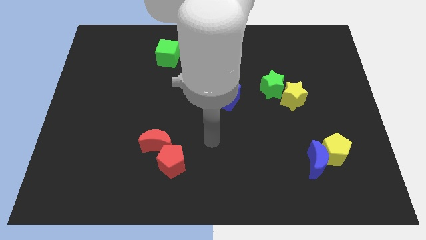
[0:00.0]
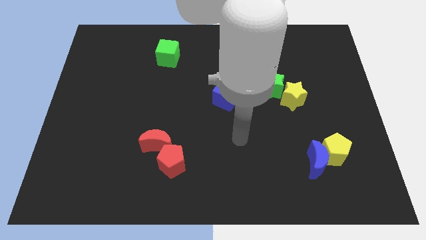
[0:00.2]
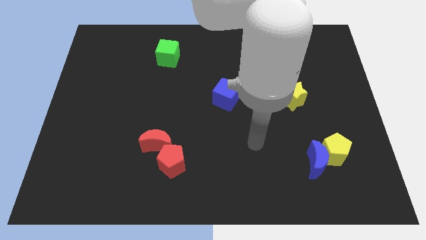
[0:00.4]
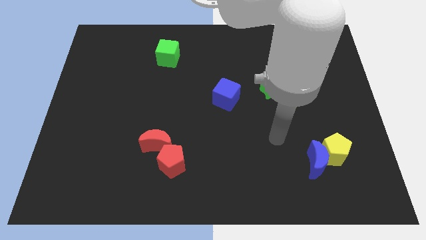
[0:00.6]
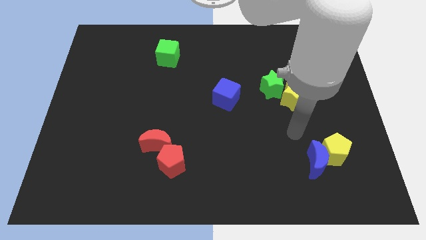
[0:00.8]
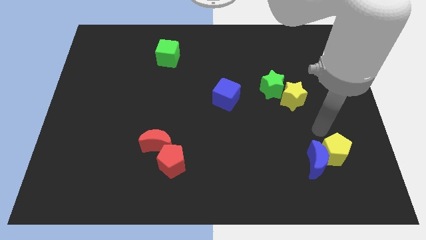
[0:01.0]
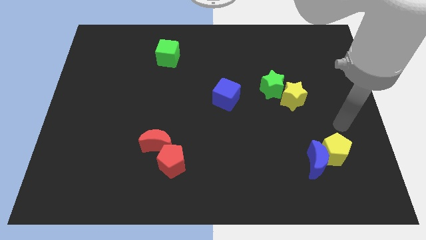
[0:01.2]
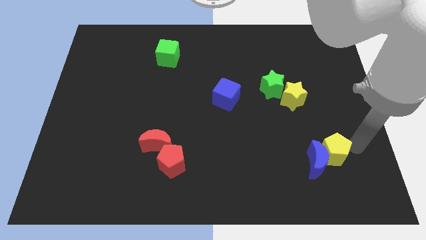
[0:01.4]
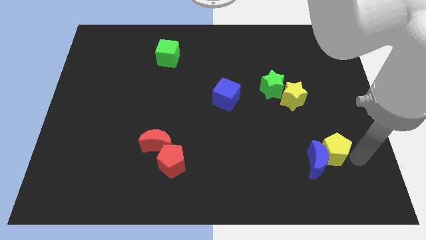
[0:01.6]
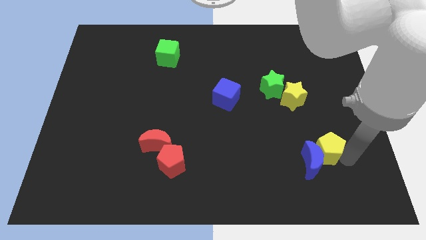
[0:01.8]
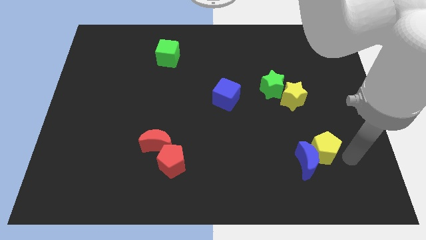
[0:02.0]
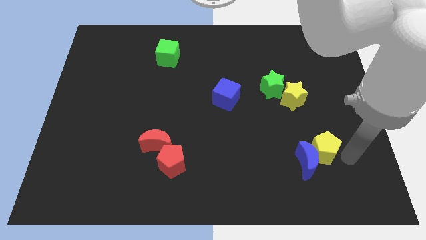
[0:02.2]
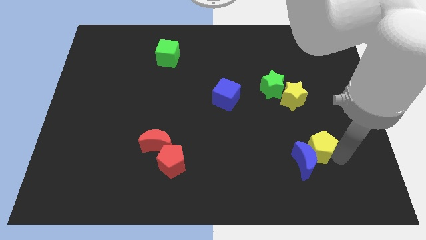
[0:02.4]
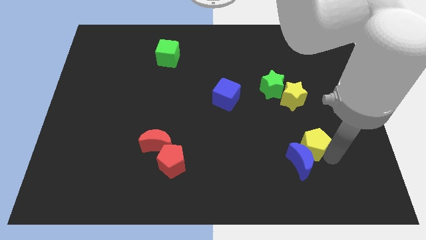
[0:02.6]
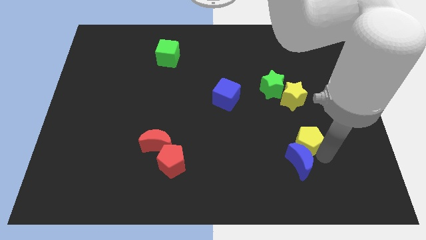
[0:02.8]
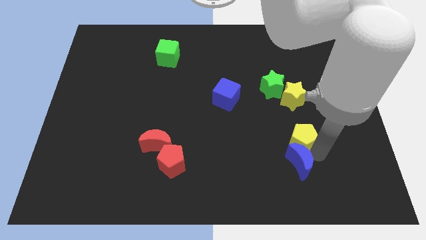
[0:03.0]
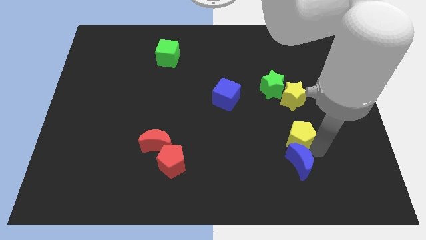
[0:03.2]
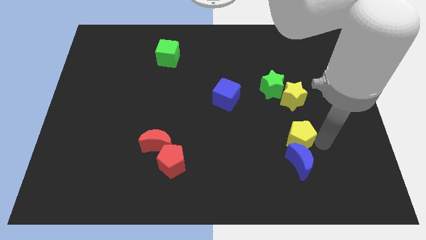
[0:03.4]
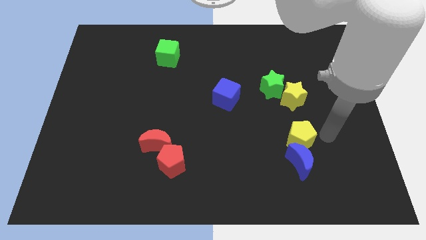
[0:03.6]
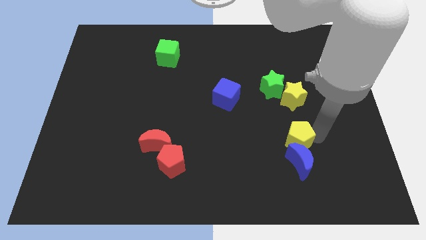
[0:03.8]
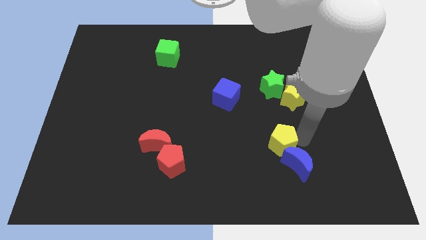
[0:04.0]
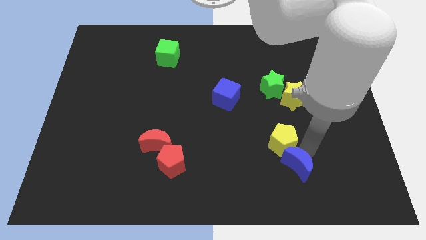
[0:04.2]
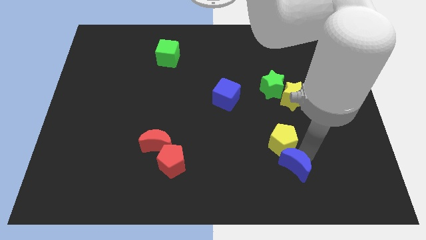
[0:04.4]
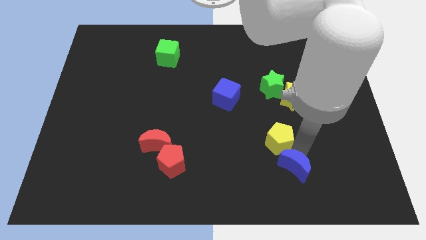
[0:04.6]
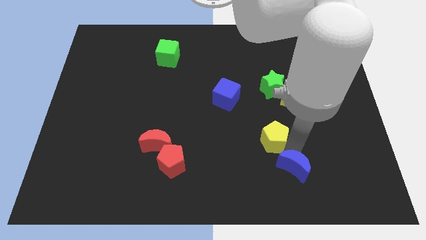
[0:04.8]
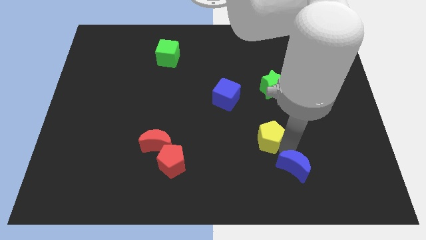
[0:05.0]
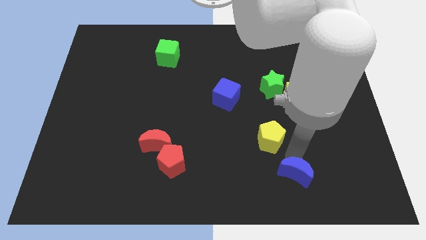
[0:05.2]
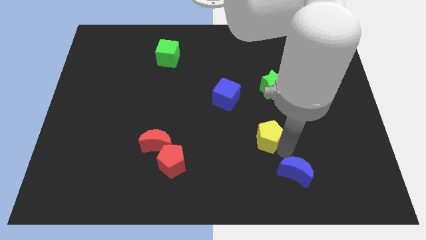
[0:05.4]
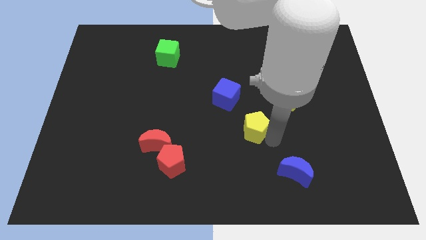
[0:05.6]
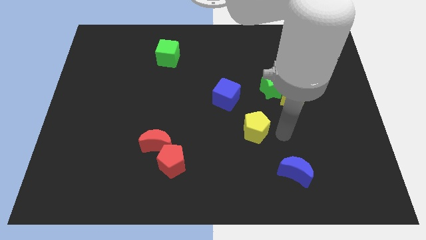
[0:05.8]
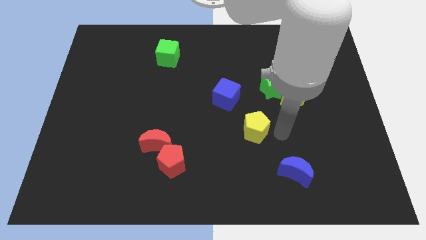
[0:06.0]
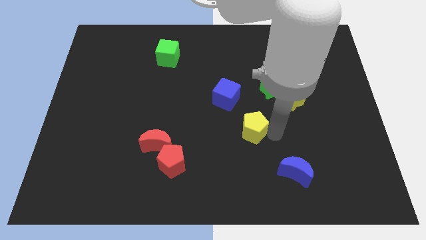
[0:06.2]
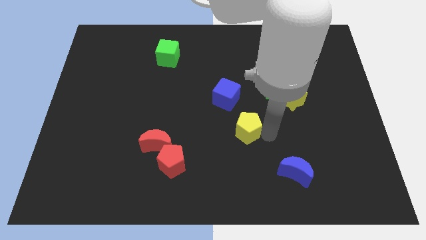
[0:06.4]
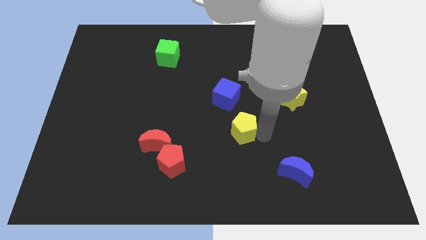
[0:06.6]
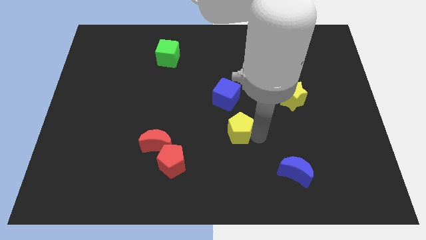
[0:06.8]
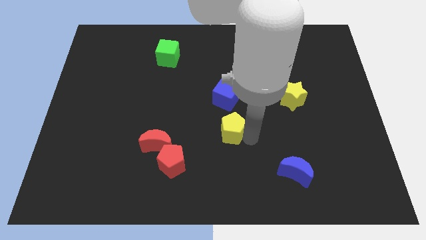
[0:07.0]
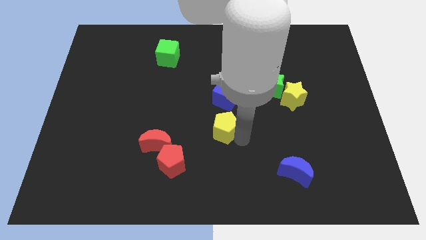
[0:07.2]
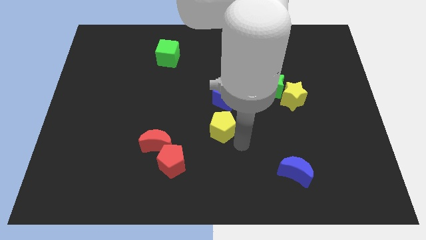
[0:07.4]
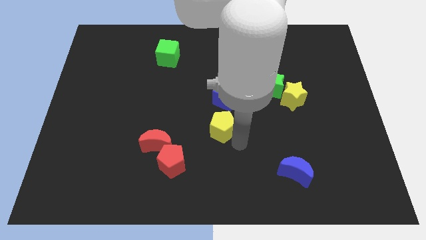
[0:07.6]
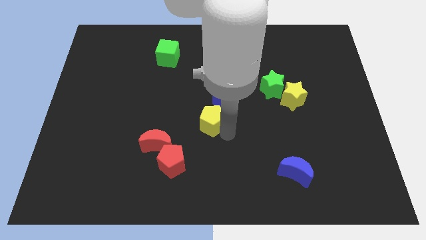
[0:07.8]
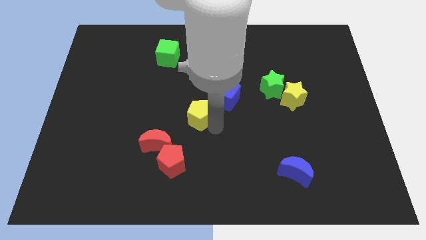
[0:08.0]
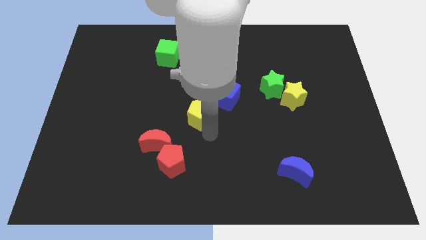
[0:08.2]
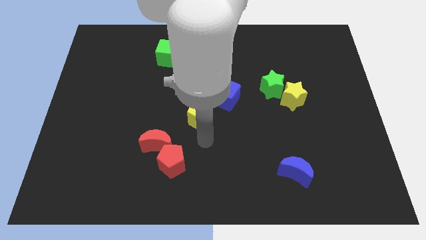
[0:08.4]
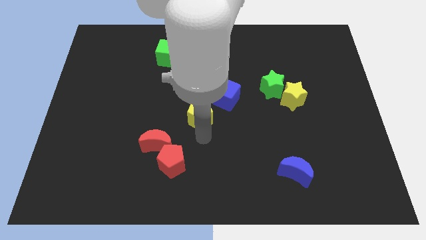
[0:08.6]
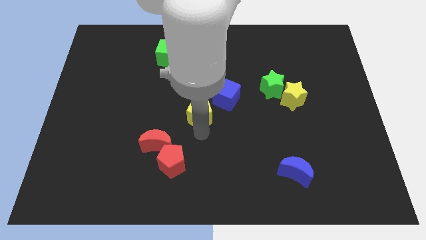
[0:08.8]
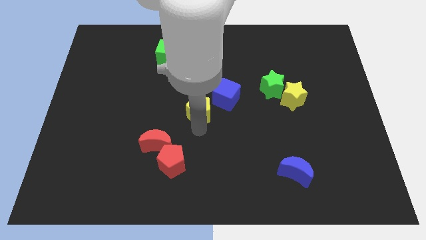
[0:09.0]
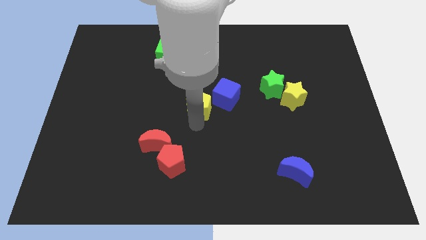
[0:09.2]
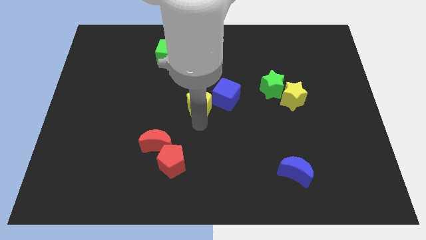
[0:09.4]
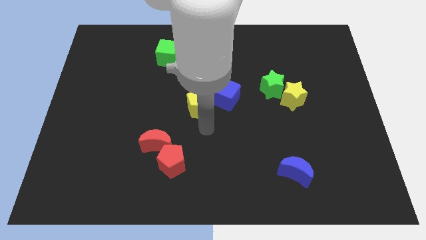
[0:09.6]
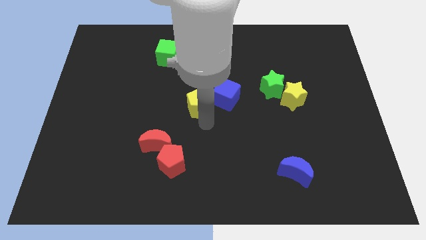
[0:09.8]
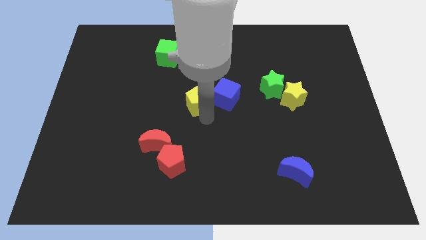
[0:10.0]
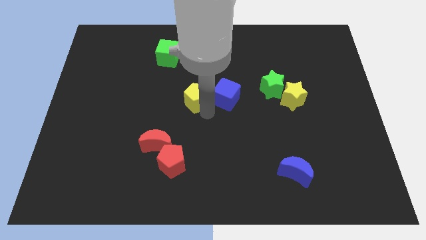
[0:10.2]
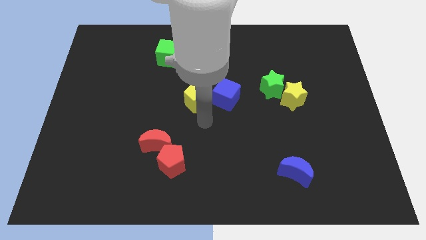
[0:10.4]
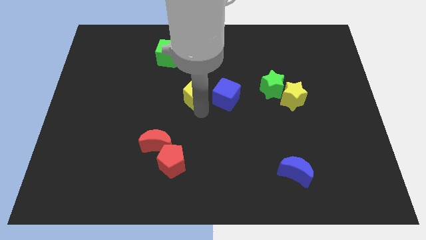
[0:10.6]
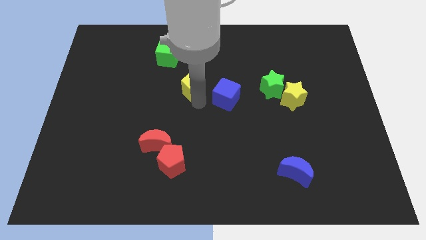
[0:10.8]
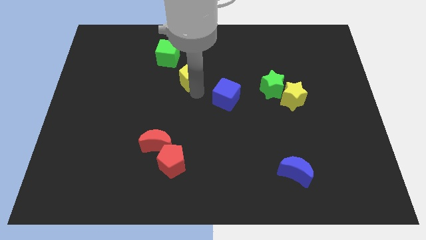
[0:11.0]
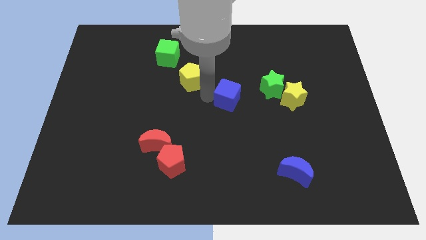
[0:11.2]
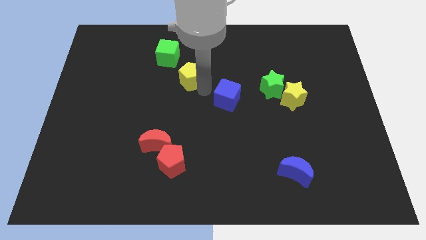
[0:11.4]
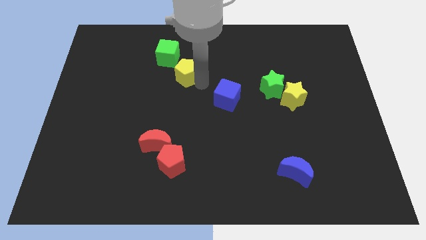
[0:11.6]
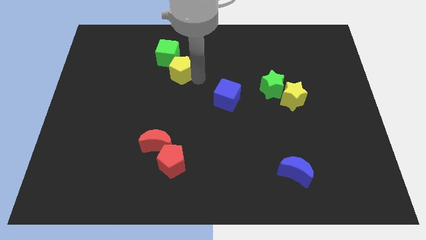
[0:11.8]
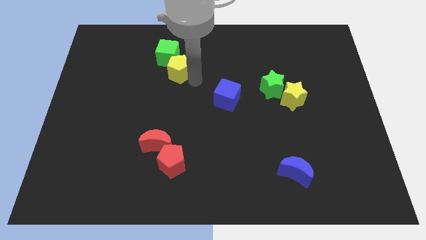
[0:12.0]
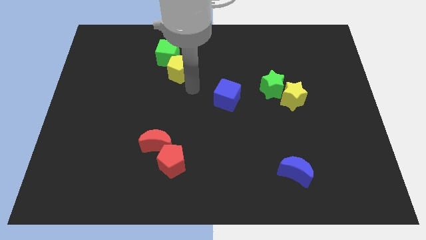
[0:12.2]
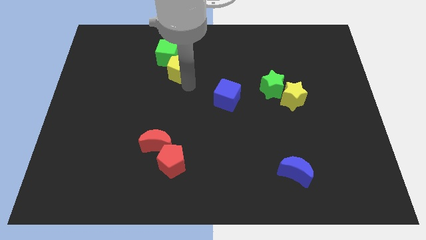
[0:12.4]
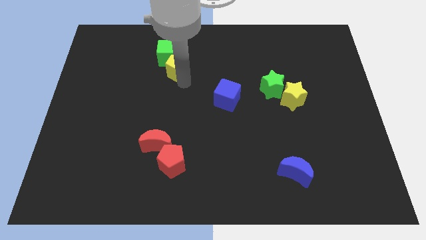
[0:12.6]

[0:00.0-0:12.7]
slide the yellow pentagon to the green cube

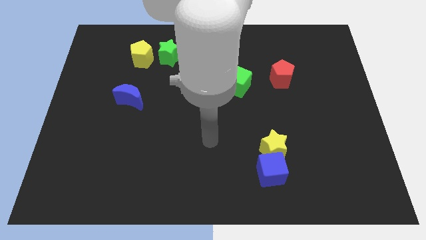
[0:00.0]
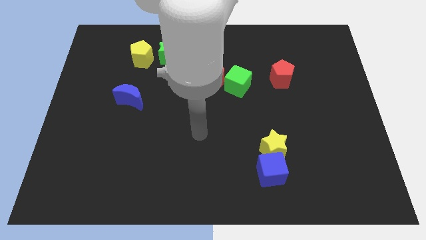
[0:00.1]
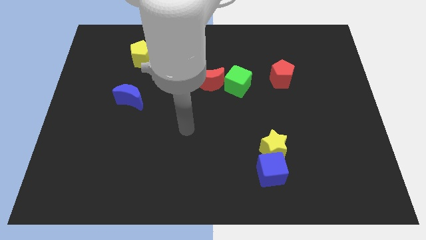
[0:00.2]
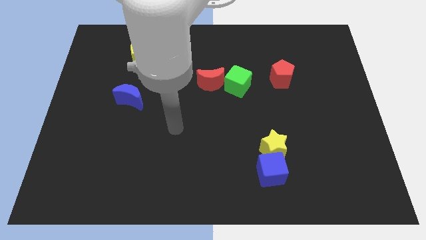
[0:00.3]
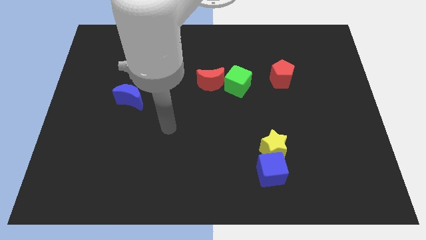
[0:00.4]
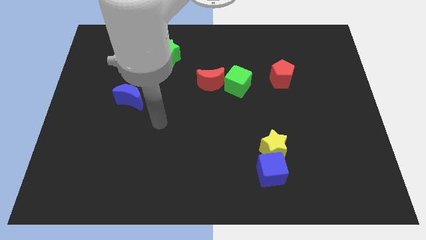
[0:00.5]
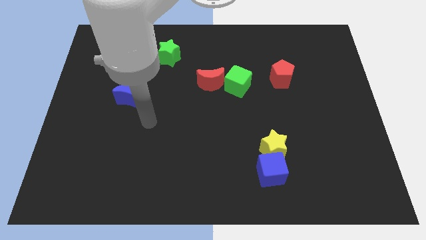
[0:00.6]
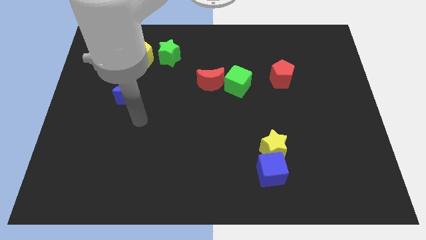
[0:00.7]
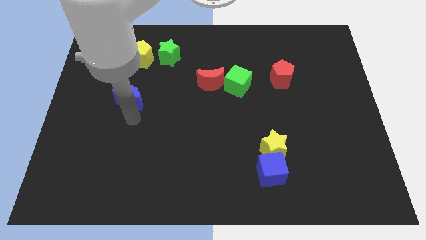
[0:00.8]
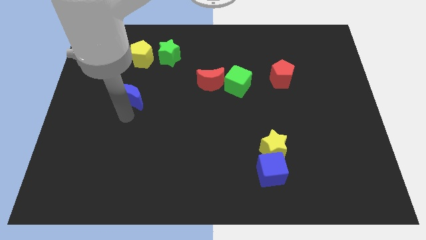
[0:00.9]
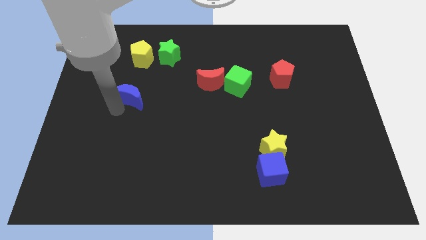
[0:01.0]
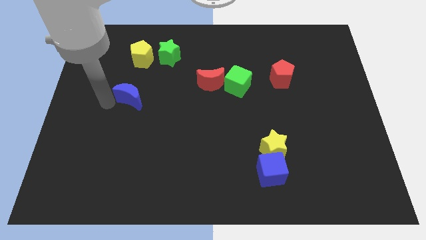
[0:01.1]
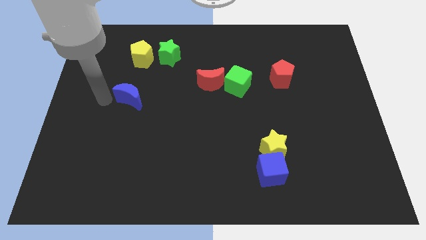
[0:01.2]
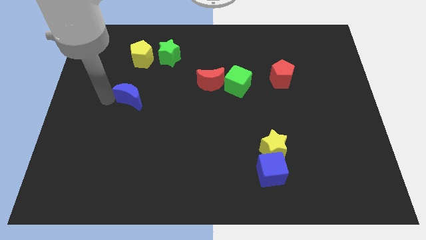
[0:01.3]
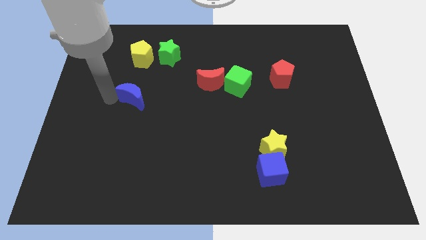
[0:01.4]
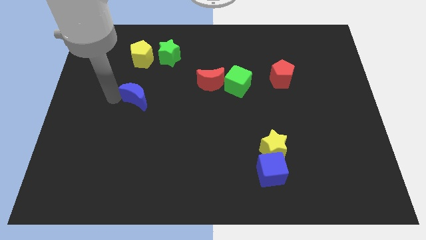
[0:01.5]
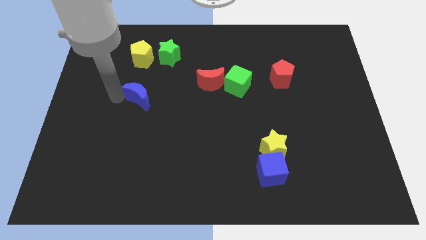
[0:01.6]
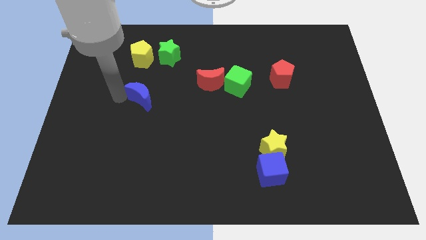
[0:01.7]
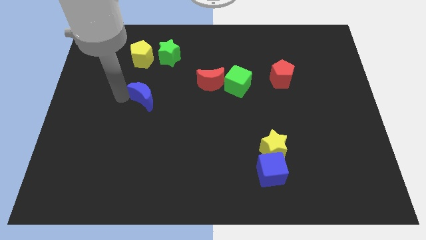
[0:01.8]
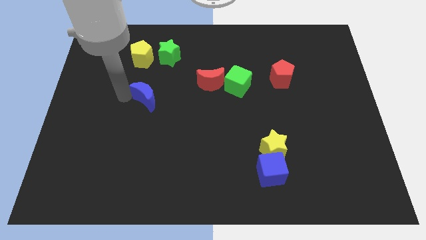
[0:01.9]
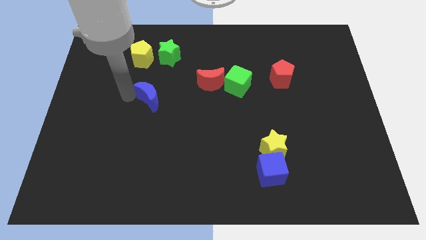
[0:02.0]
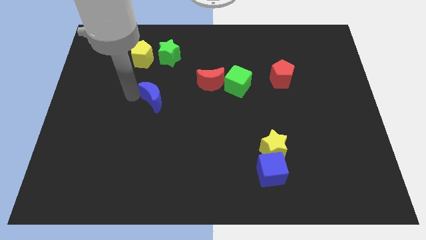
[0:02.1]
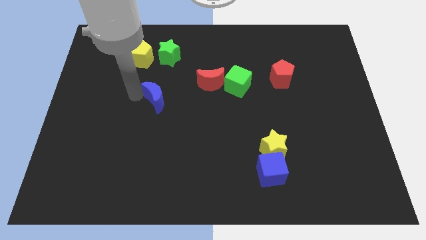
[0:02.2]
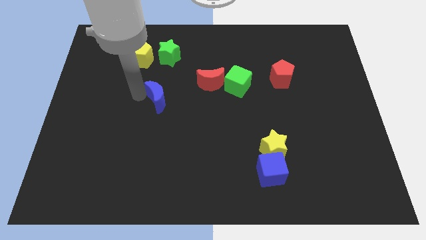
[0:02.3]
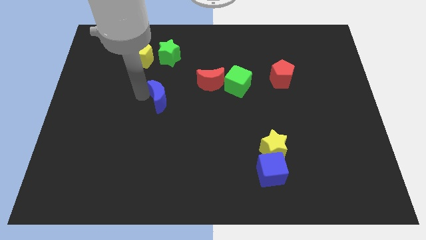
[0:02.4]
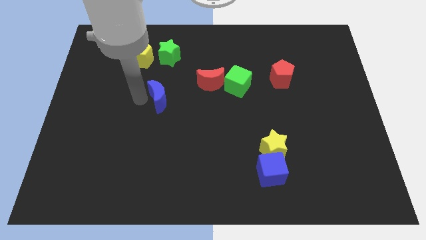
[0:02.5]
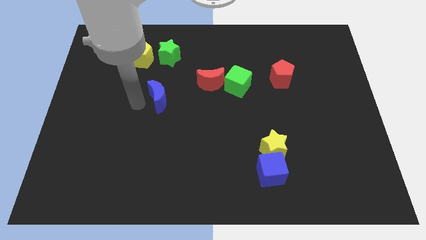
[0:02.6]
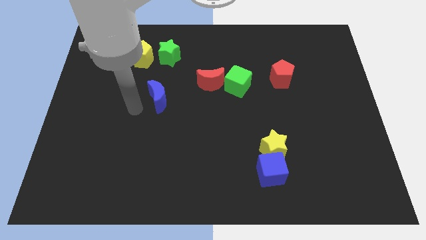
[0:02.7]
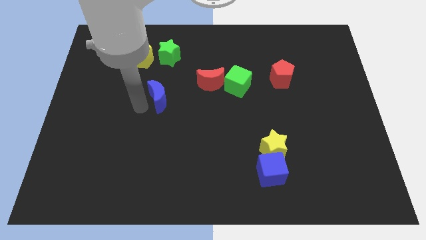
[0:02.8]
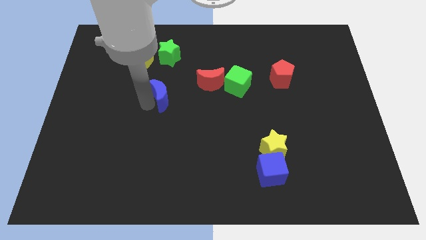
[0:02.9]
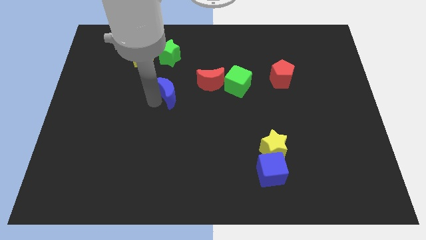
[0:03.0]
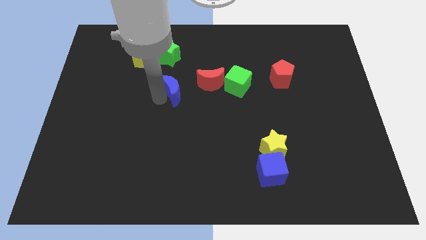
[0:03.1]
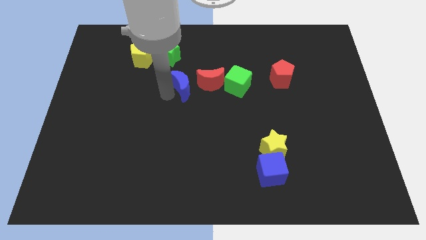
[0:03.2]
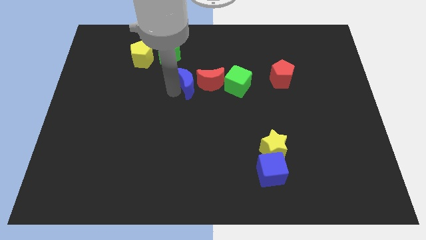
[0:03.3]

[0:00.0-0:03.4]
push the blue moon close to the red moon
